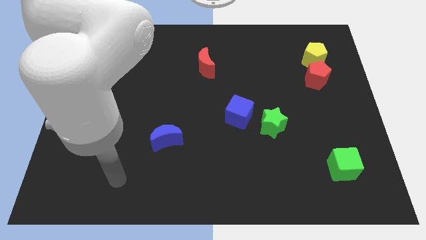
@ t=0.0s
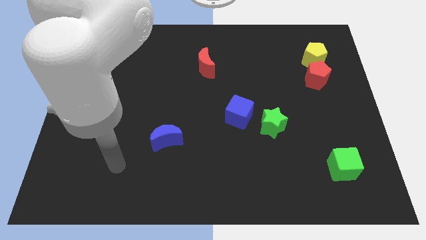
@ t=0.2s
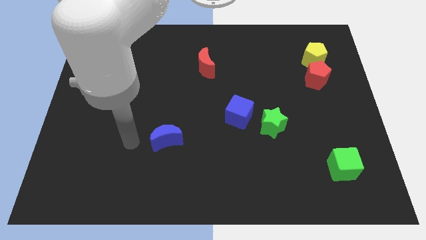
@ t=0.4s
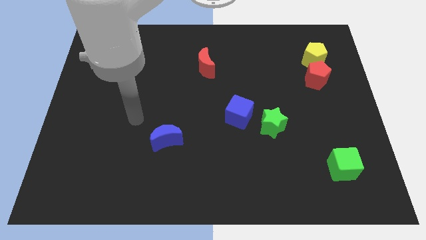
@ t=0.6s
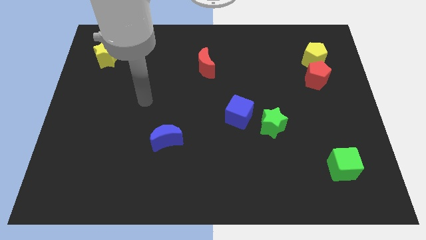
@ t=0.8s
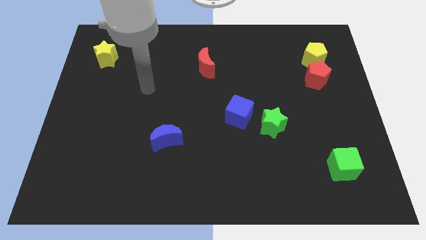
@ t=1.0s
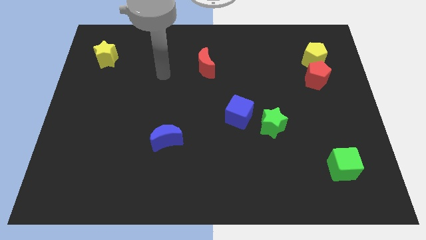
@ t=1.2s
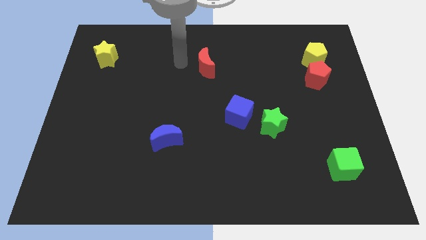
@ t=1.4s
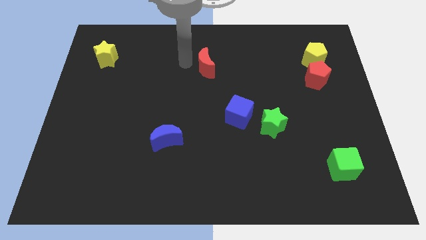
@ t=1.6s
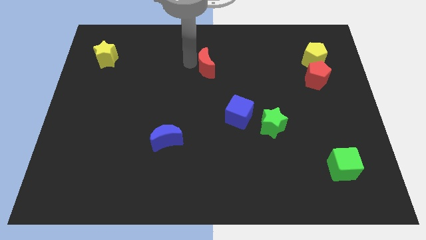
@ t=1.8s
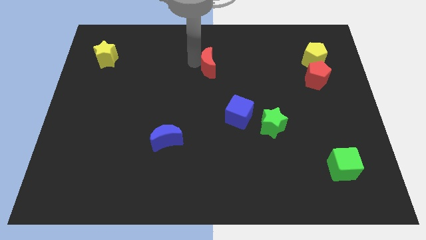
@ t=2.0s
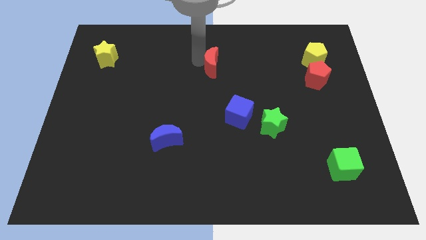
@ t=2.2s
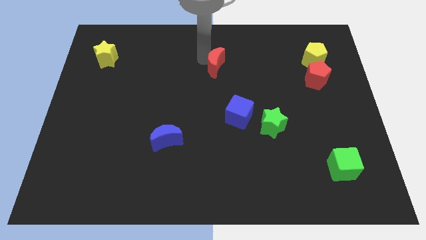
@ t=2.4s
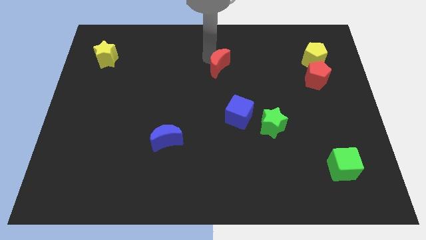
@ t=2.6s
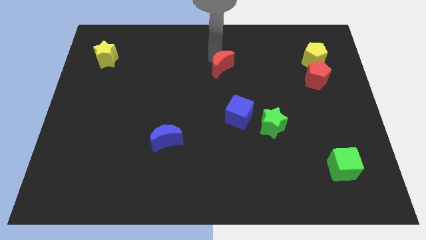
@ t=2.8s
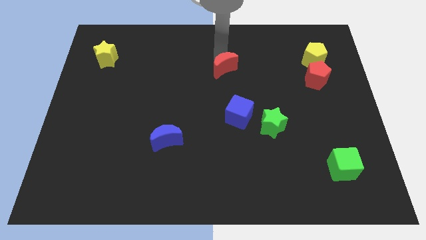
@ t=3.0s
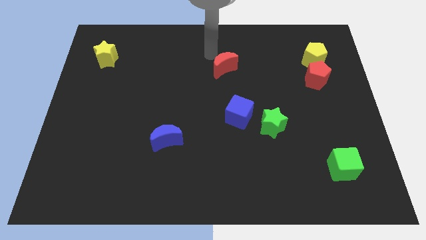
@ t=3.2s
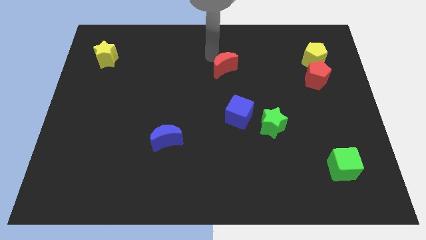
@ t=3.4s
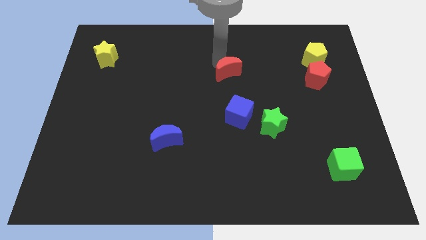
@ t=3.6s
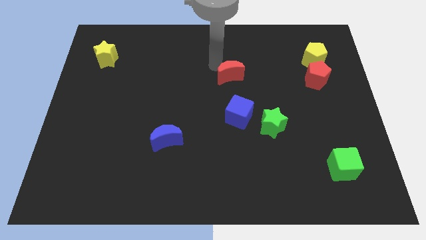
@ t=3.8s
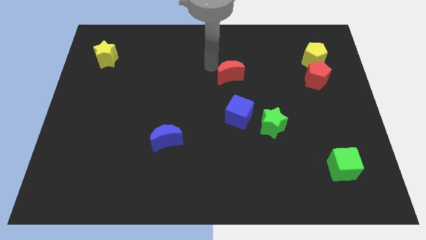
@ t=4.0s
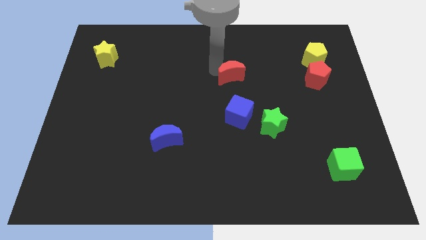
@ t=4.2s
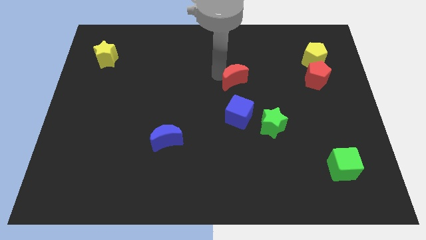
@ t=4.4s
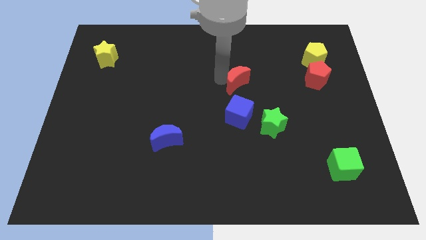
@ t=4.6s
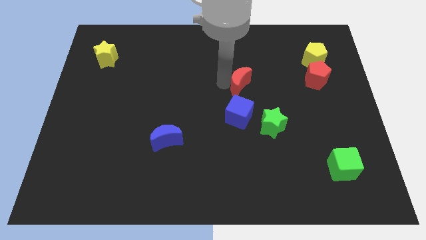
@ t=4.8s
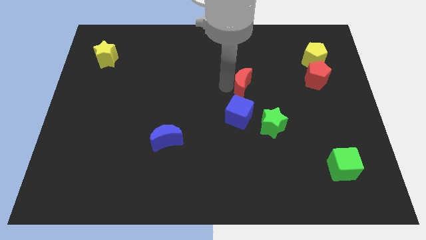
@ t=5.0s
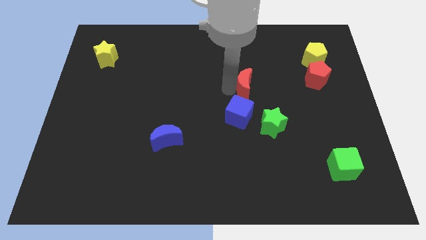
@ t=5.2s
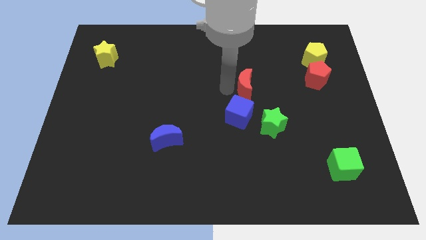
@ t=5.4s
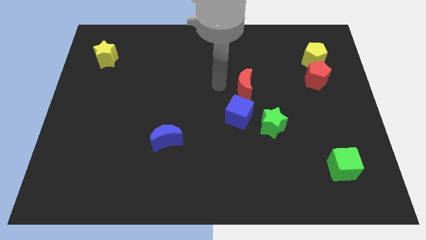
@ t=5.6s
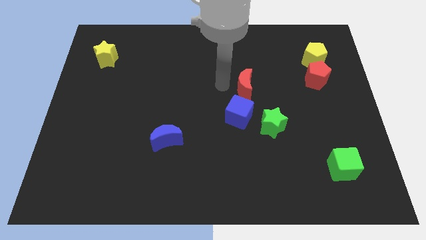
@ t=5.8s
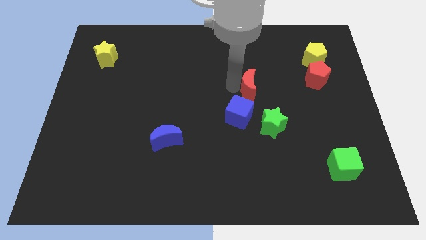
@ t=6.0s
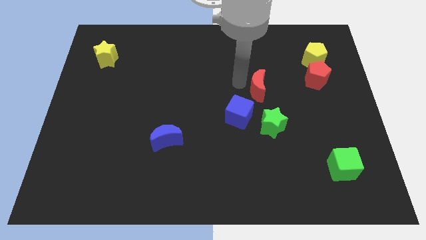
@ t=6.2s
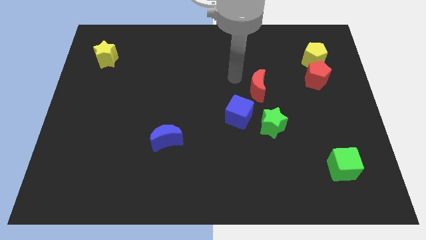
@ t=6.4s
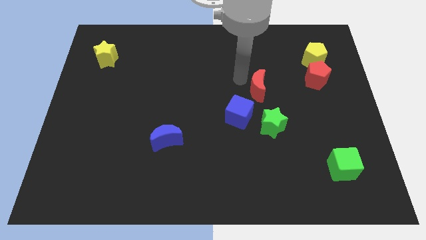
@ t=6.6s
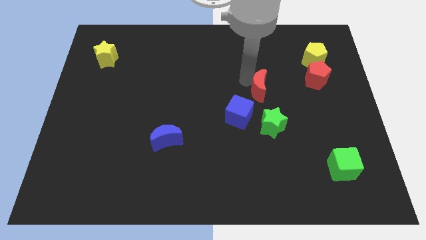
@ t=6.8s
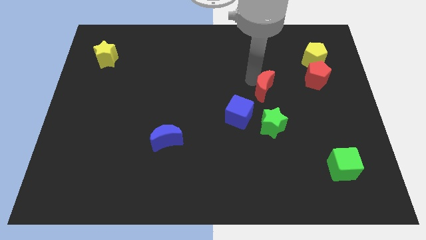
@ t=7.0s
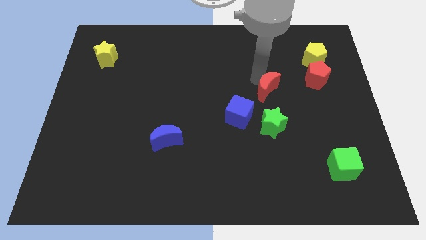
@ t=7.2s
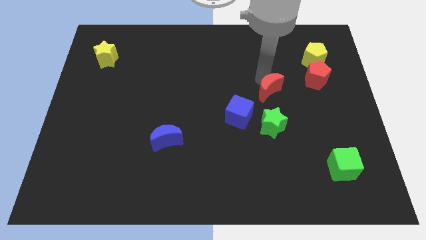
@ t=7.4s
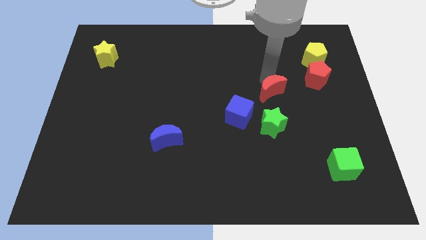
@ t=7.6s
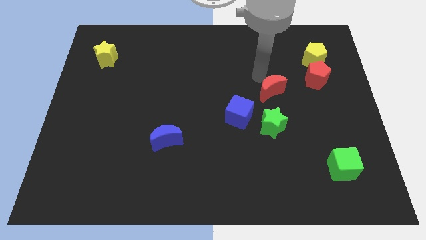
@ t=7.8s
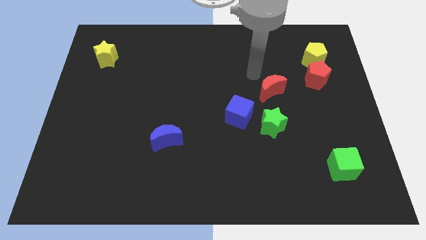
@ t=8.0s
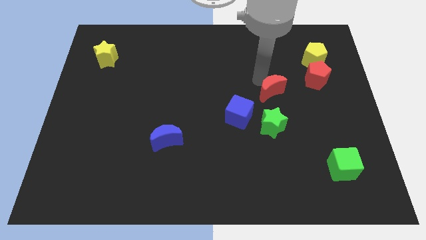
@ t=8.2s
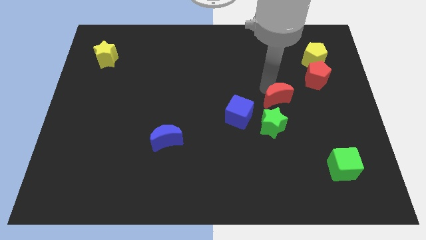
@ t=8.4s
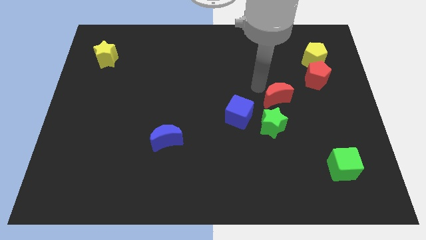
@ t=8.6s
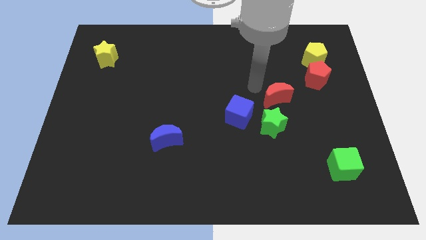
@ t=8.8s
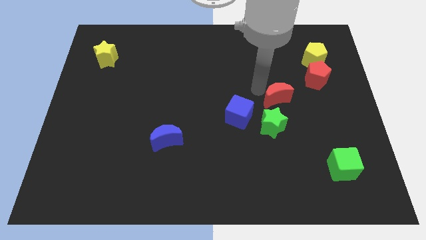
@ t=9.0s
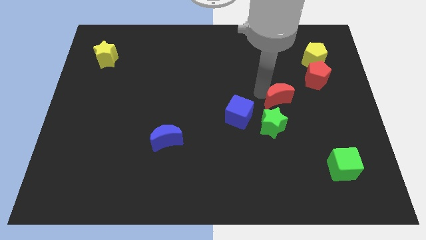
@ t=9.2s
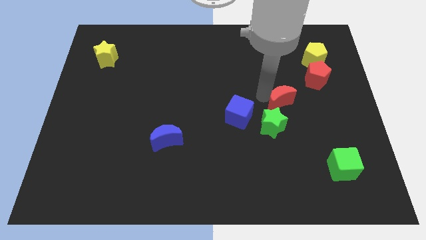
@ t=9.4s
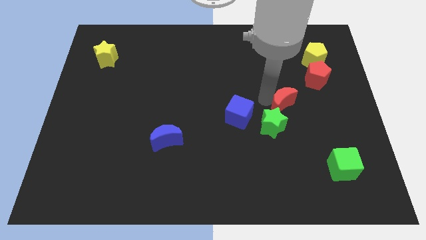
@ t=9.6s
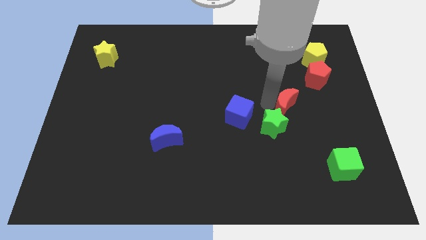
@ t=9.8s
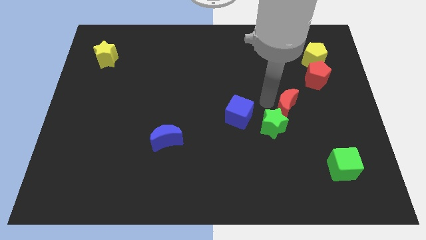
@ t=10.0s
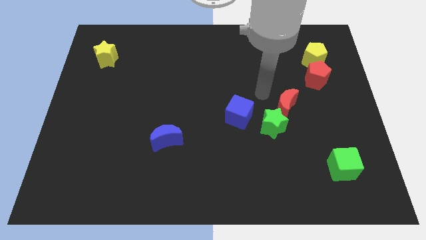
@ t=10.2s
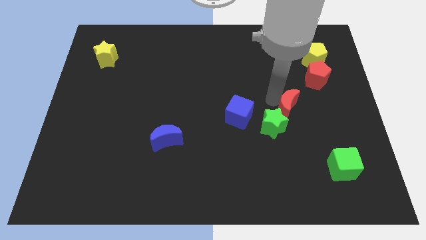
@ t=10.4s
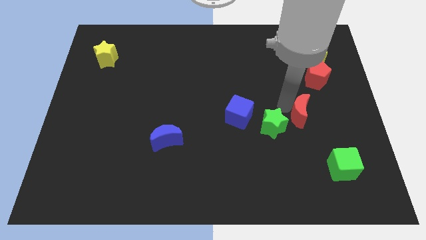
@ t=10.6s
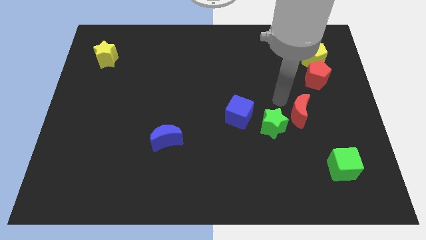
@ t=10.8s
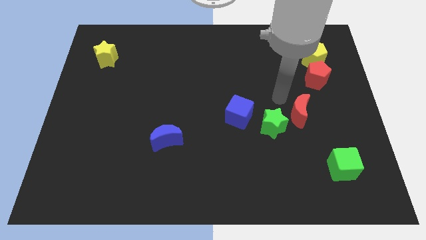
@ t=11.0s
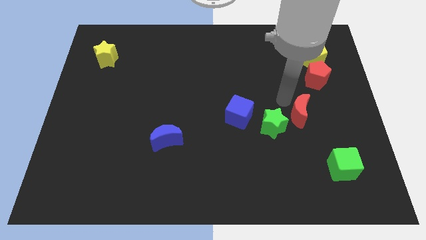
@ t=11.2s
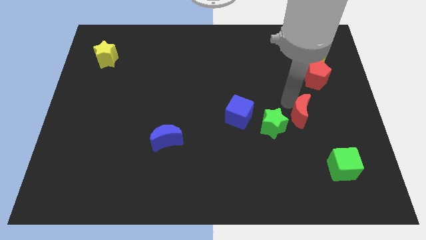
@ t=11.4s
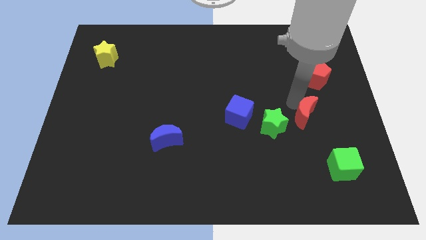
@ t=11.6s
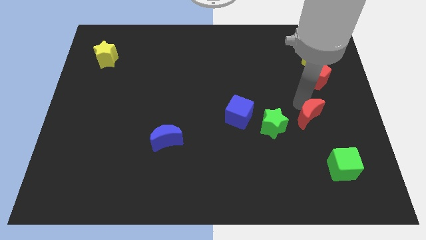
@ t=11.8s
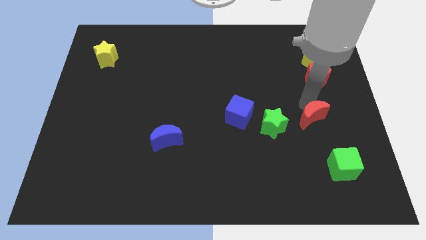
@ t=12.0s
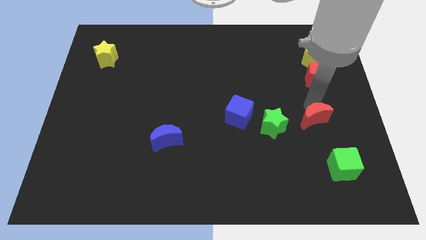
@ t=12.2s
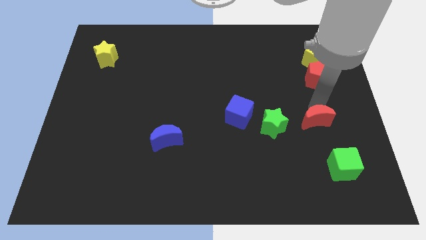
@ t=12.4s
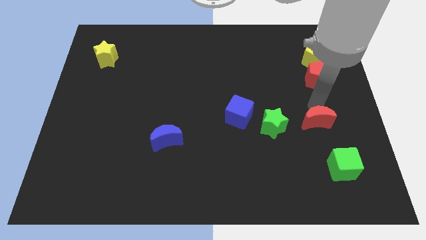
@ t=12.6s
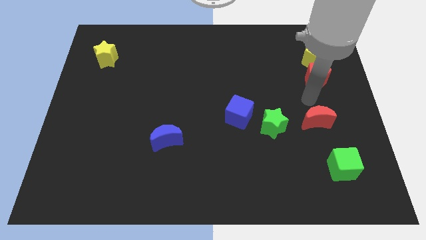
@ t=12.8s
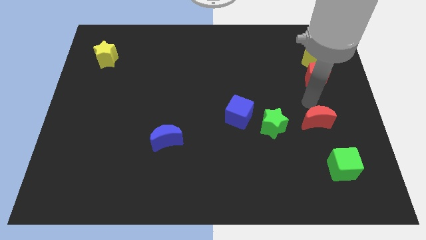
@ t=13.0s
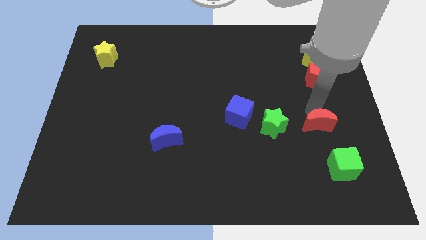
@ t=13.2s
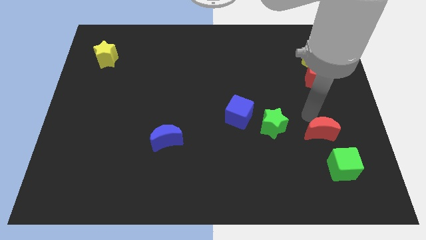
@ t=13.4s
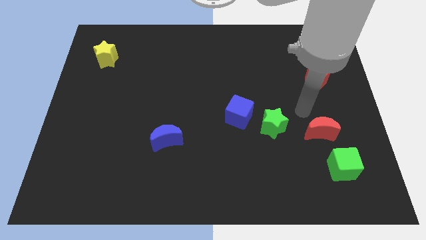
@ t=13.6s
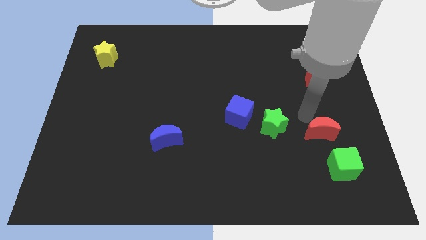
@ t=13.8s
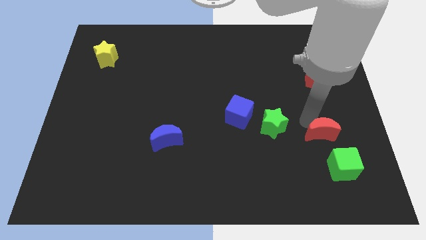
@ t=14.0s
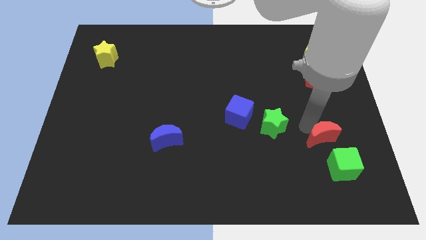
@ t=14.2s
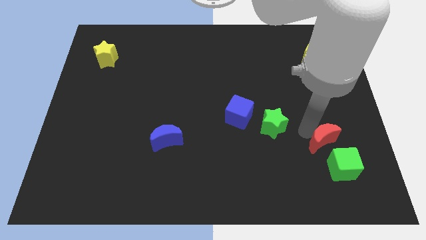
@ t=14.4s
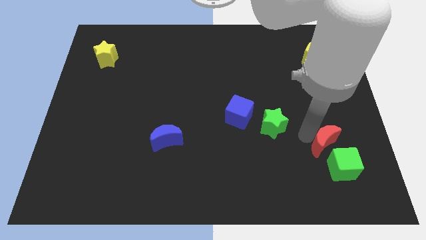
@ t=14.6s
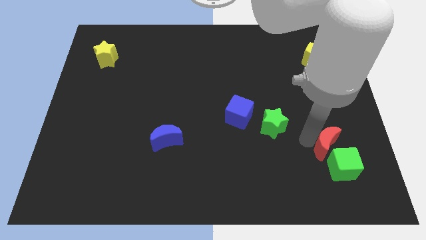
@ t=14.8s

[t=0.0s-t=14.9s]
push the red moon close to the green cube
